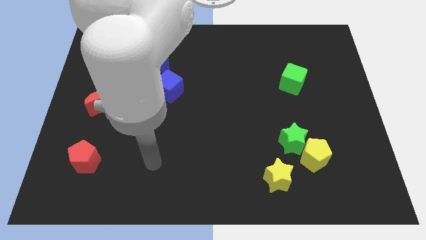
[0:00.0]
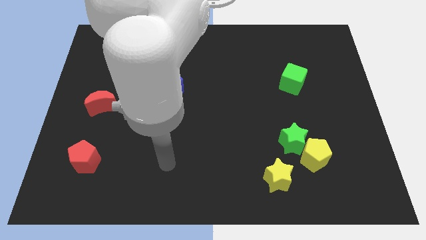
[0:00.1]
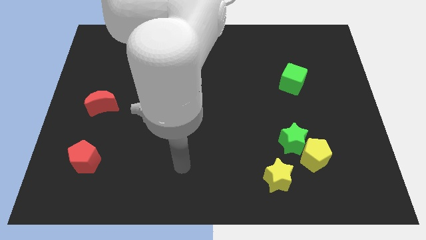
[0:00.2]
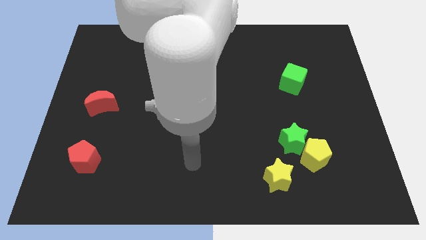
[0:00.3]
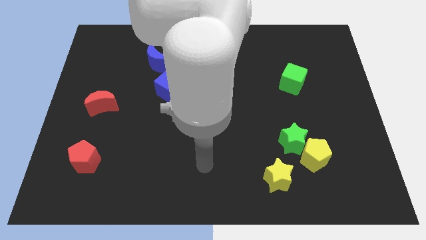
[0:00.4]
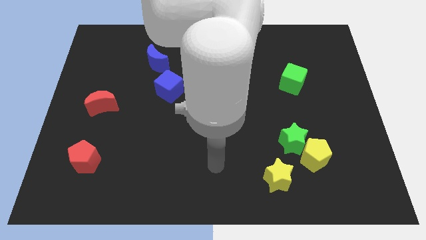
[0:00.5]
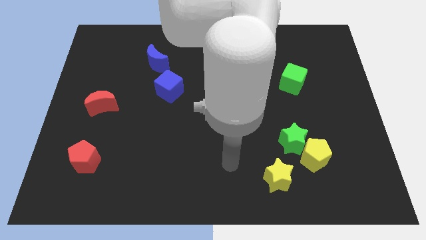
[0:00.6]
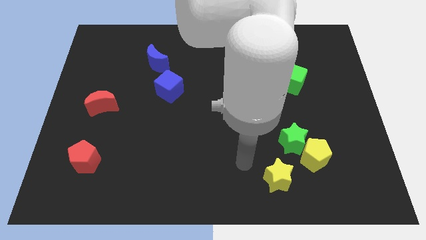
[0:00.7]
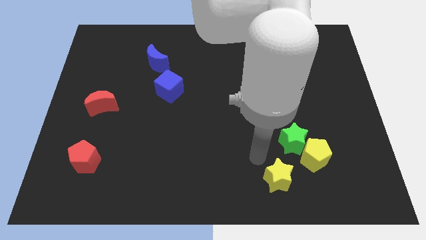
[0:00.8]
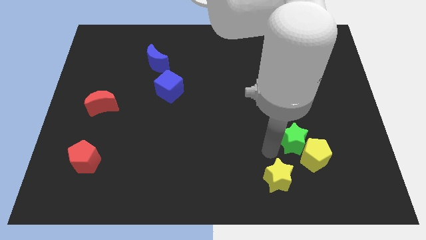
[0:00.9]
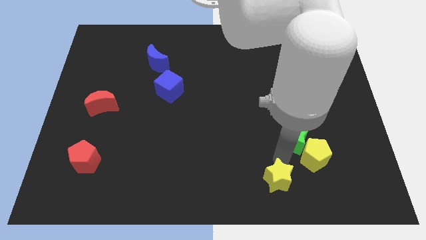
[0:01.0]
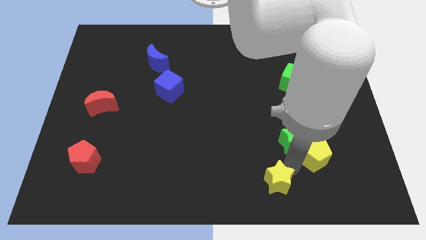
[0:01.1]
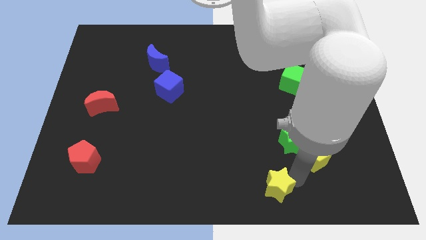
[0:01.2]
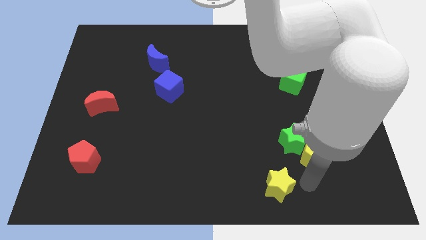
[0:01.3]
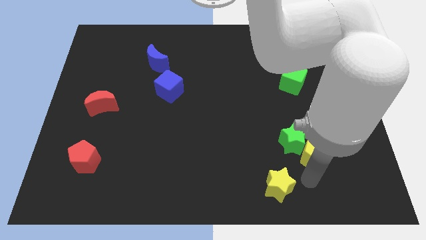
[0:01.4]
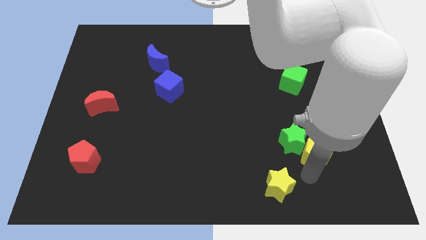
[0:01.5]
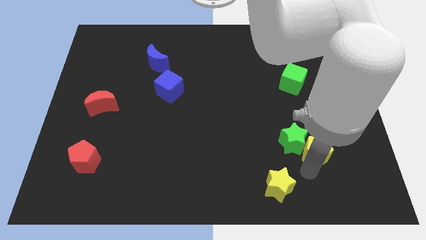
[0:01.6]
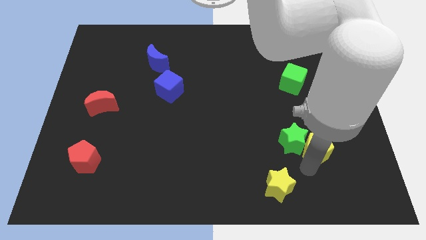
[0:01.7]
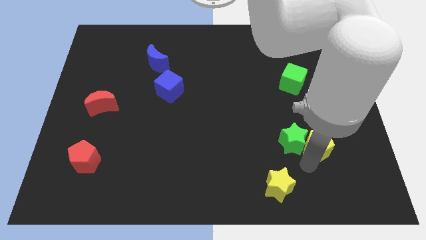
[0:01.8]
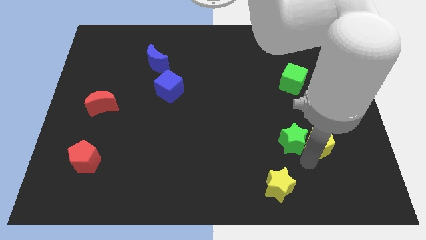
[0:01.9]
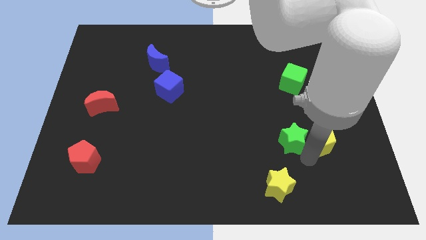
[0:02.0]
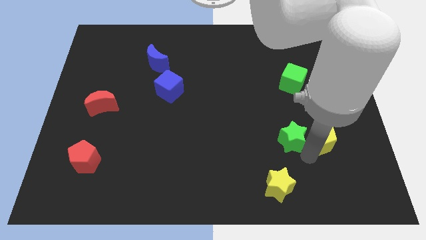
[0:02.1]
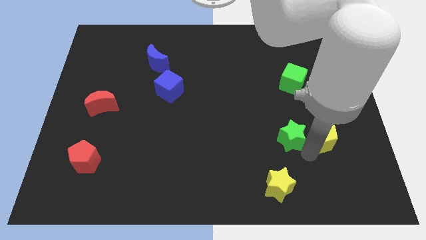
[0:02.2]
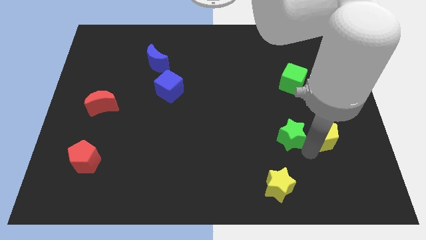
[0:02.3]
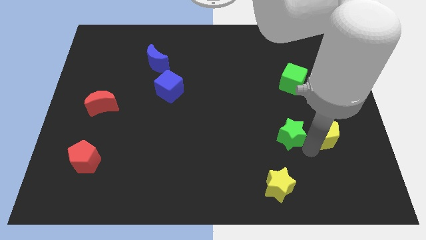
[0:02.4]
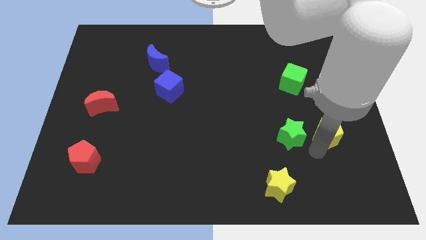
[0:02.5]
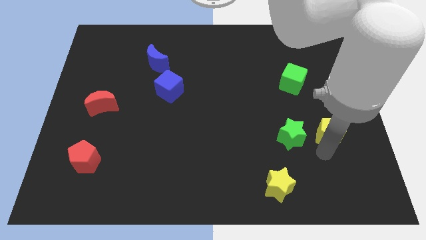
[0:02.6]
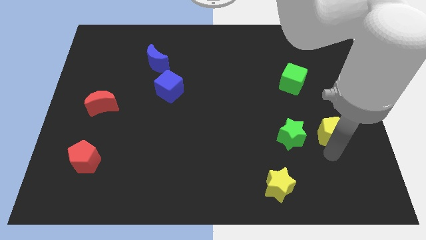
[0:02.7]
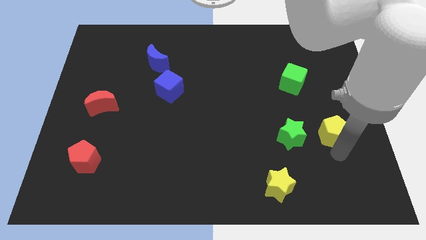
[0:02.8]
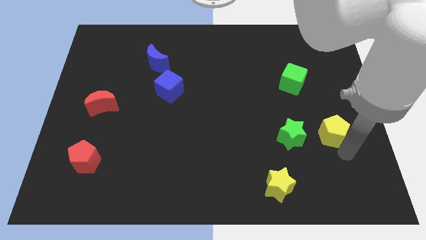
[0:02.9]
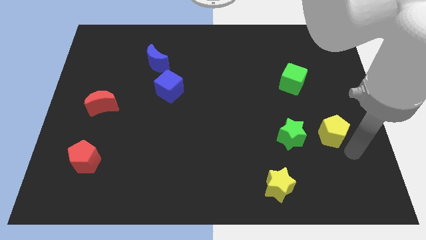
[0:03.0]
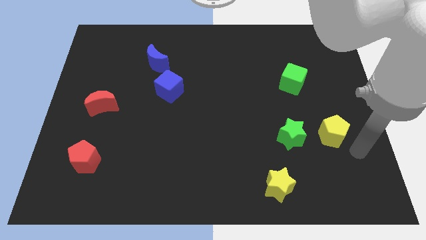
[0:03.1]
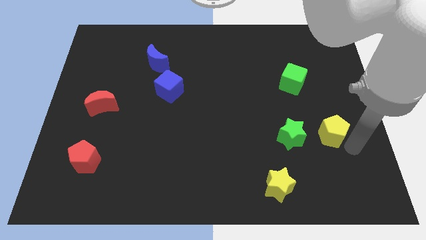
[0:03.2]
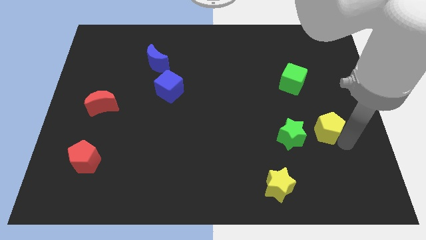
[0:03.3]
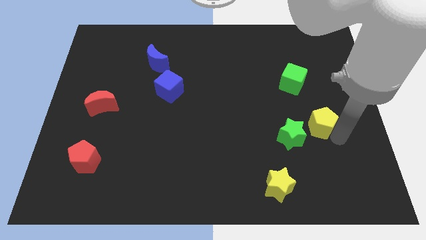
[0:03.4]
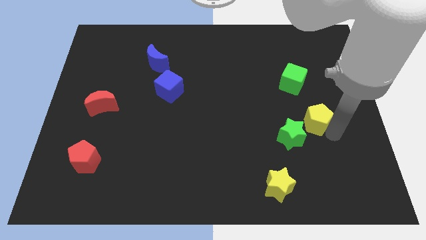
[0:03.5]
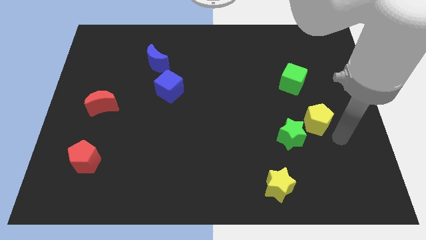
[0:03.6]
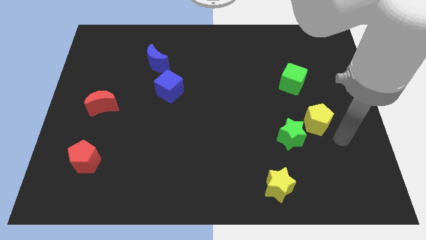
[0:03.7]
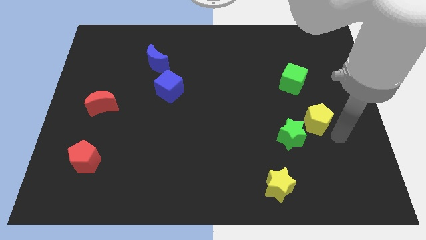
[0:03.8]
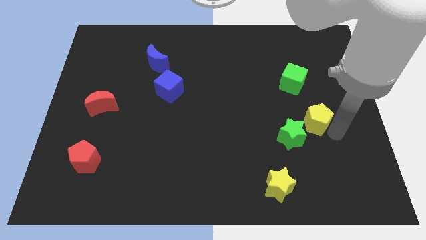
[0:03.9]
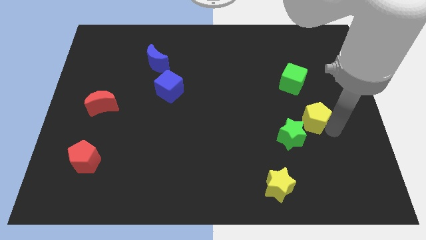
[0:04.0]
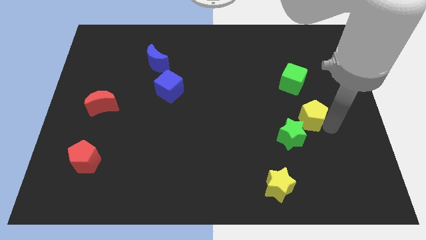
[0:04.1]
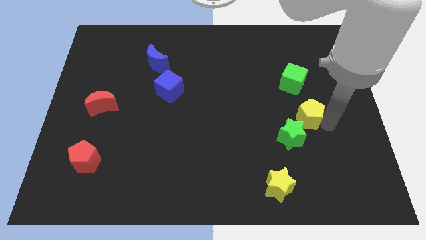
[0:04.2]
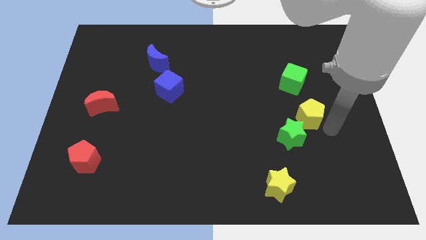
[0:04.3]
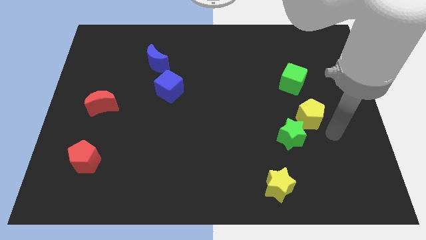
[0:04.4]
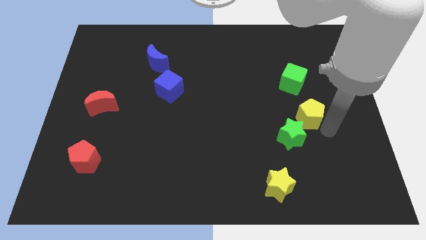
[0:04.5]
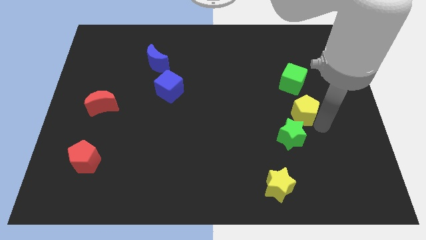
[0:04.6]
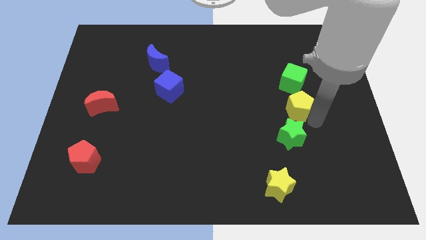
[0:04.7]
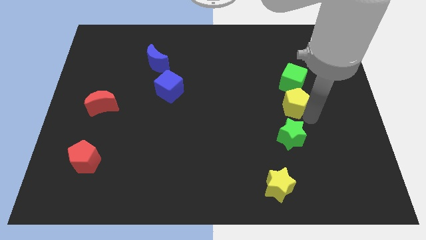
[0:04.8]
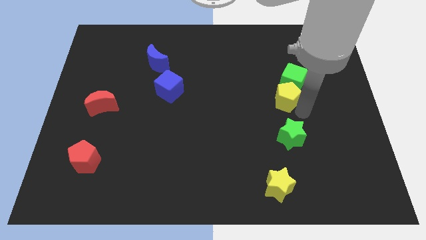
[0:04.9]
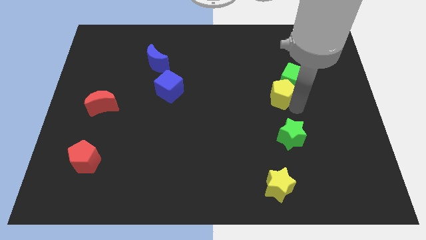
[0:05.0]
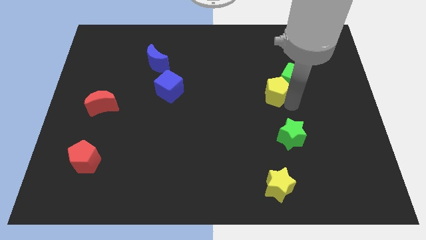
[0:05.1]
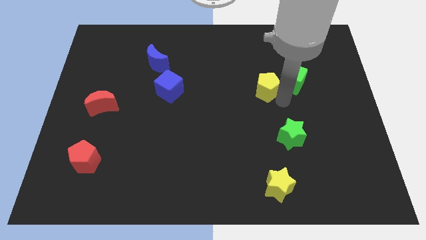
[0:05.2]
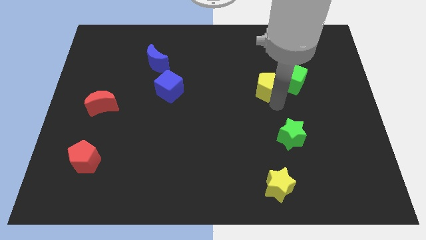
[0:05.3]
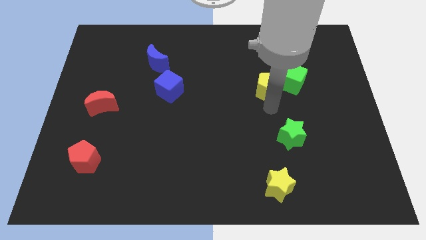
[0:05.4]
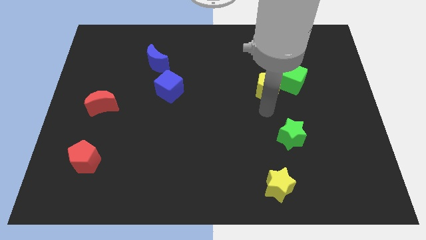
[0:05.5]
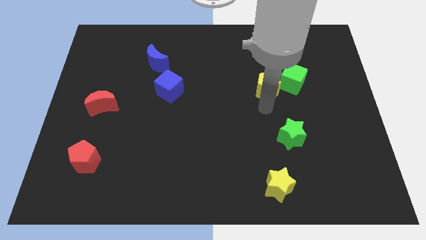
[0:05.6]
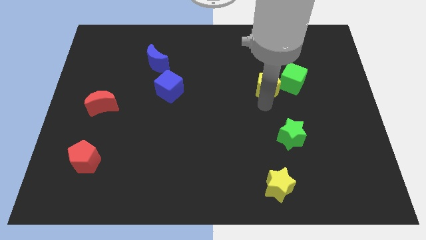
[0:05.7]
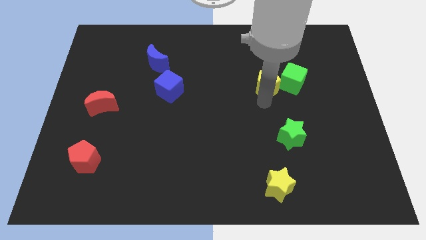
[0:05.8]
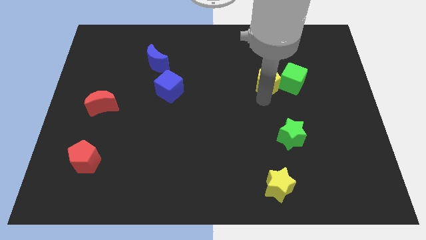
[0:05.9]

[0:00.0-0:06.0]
put the yellow pentagon diagonally up and to the left of the green cube
